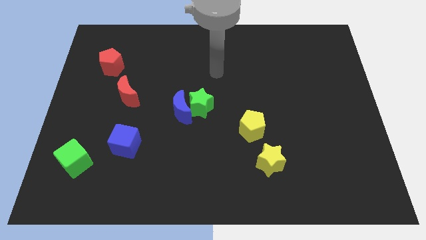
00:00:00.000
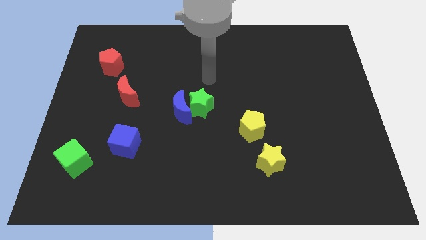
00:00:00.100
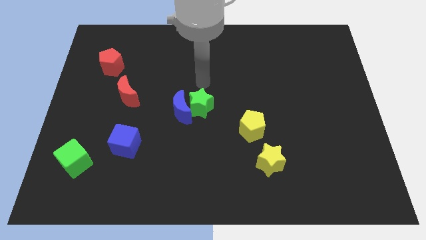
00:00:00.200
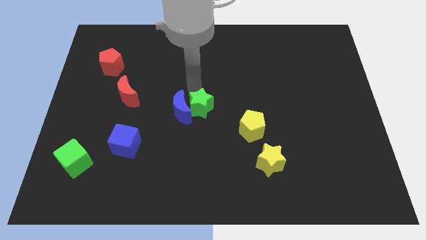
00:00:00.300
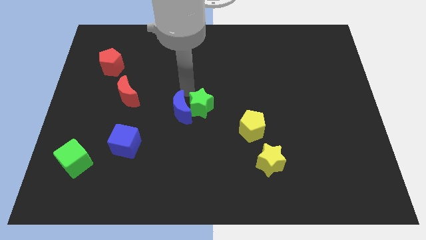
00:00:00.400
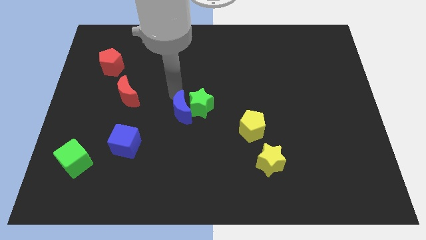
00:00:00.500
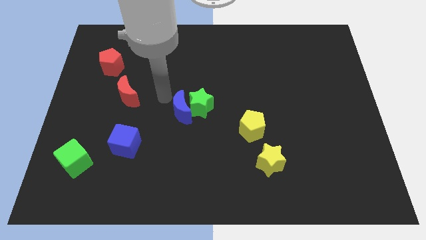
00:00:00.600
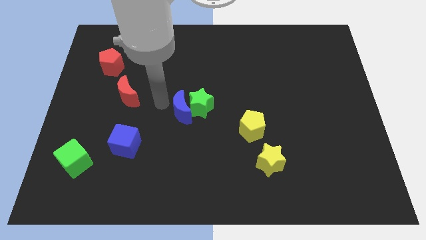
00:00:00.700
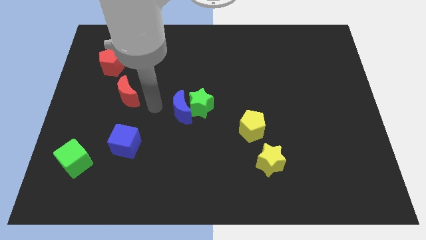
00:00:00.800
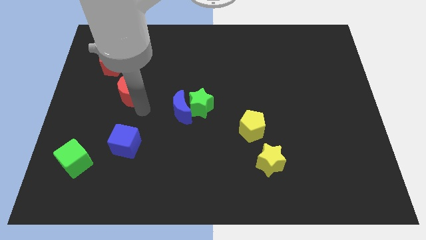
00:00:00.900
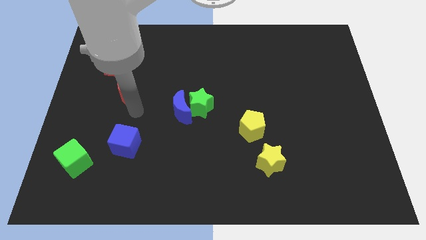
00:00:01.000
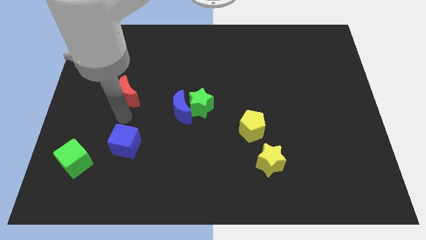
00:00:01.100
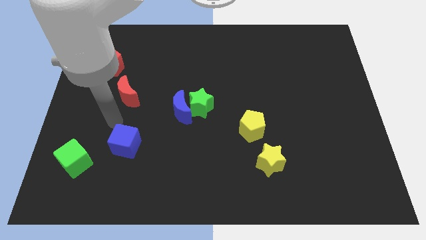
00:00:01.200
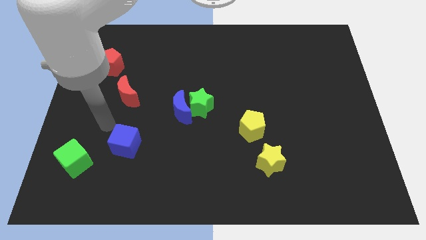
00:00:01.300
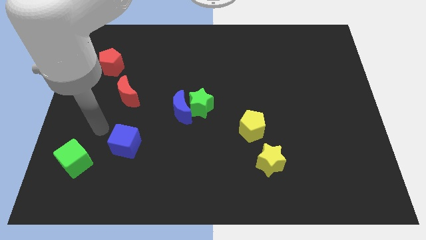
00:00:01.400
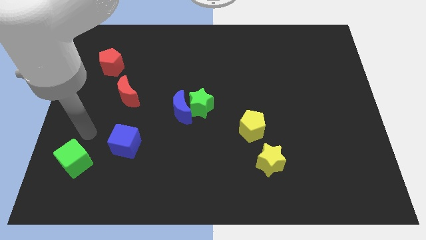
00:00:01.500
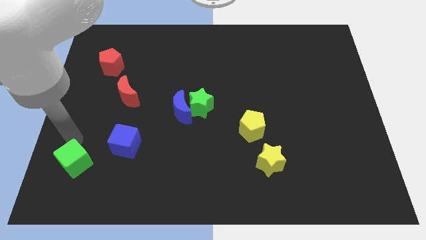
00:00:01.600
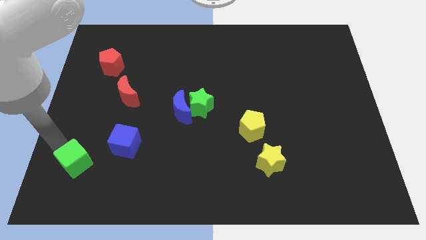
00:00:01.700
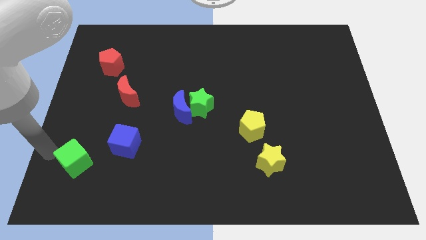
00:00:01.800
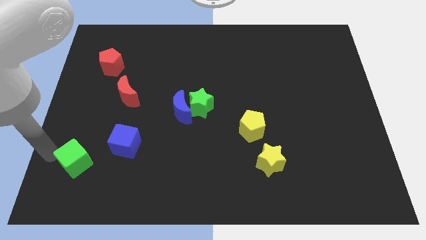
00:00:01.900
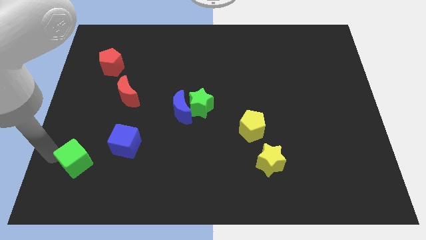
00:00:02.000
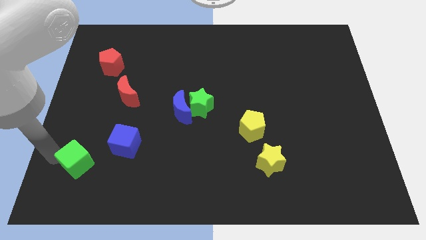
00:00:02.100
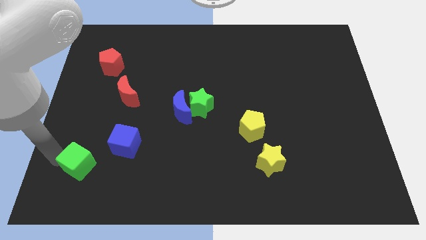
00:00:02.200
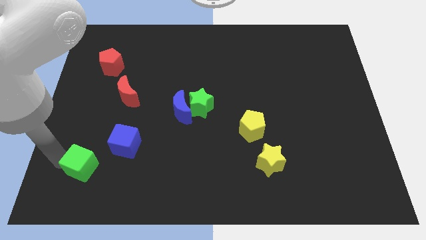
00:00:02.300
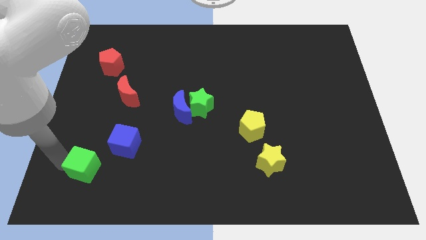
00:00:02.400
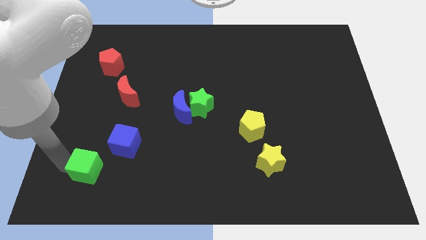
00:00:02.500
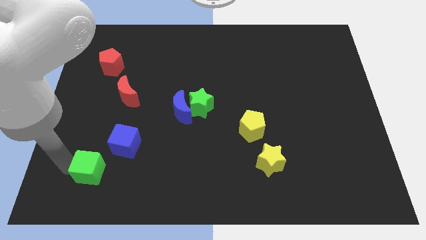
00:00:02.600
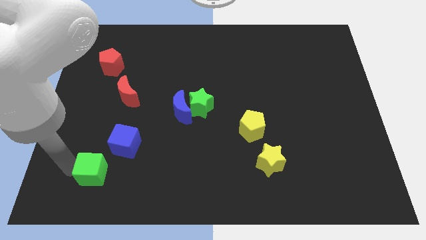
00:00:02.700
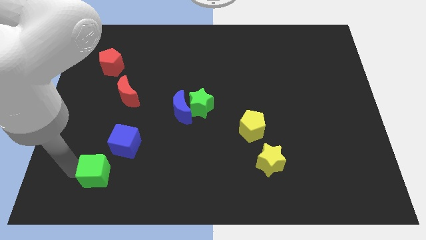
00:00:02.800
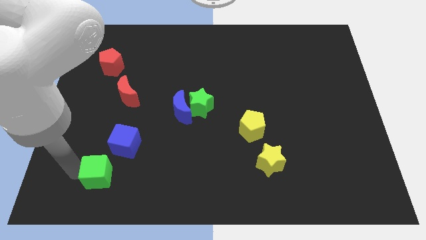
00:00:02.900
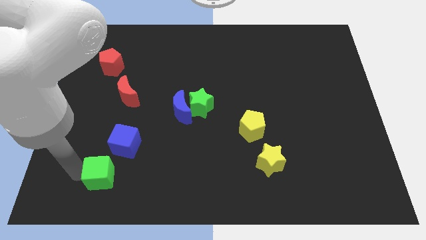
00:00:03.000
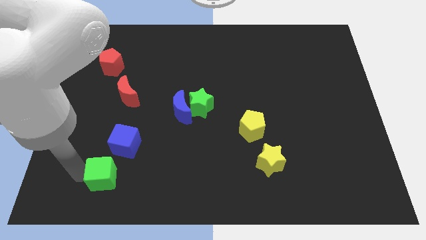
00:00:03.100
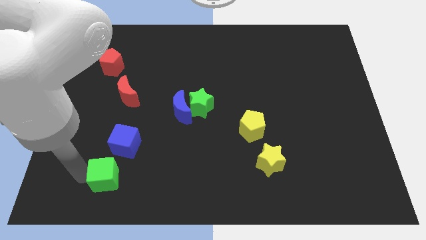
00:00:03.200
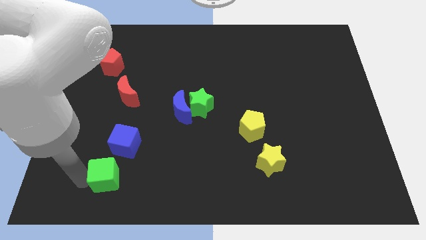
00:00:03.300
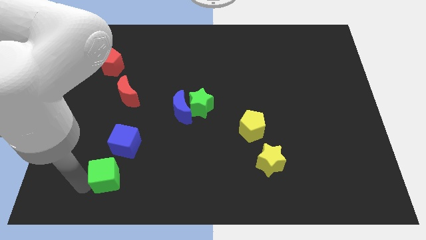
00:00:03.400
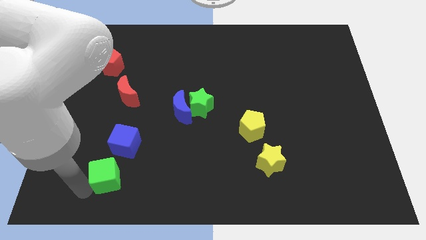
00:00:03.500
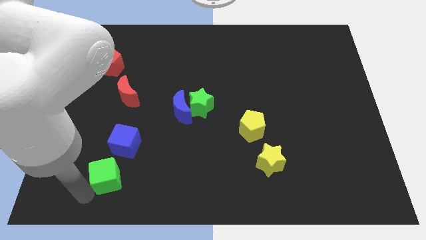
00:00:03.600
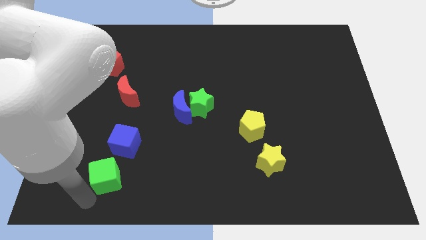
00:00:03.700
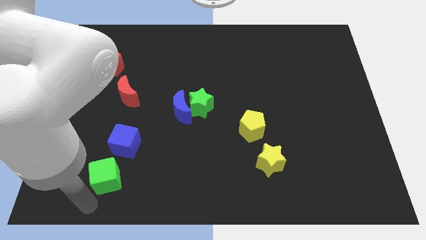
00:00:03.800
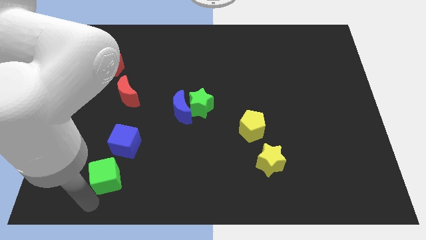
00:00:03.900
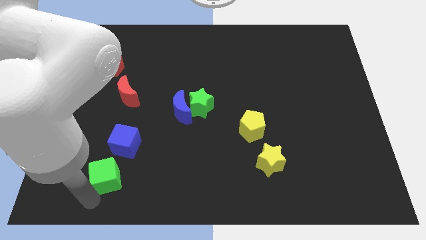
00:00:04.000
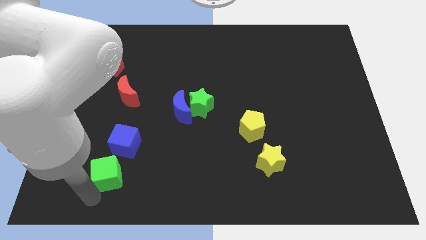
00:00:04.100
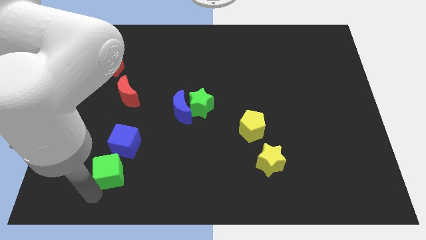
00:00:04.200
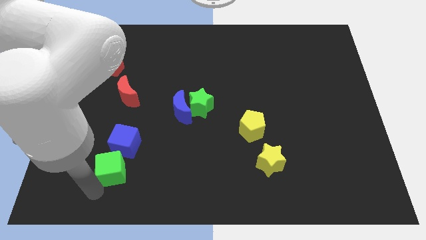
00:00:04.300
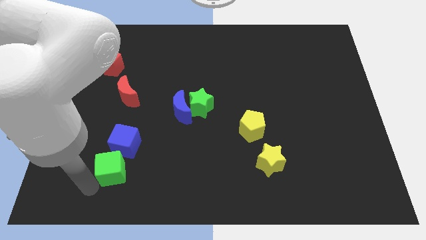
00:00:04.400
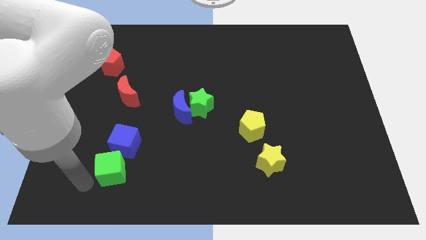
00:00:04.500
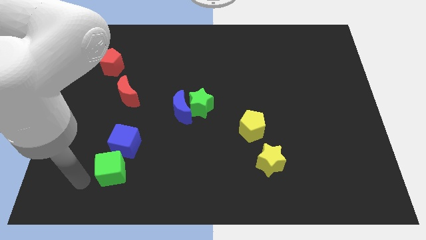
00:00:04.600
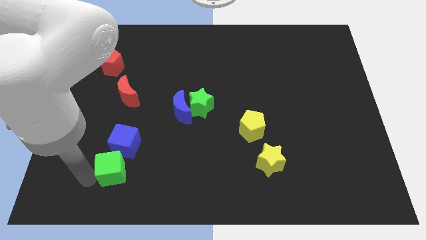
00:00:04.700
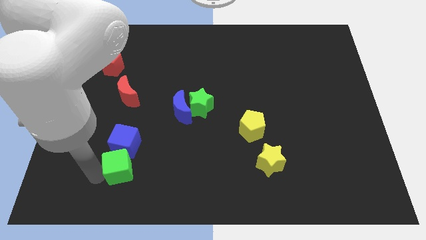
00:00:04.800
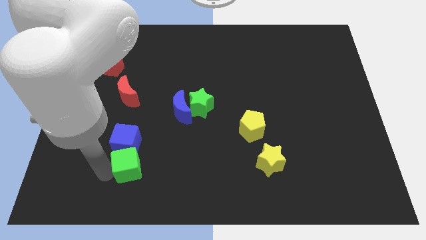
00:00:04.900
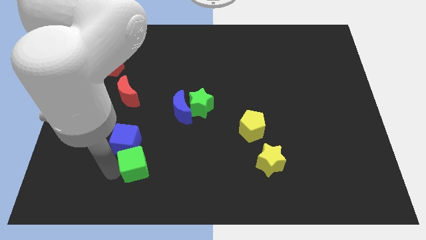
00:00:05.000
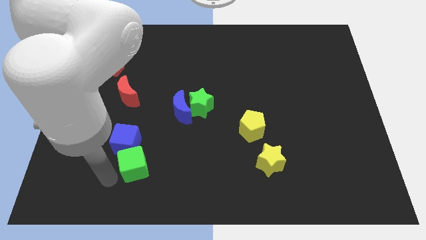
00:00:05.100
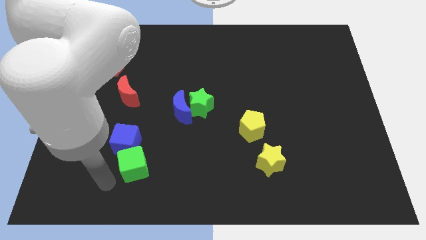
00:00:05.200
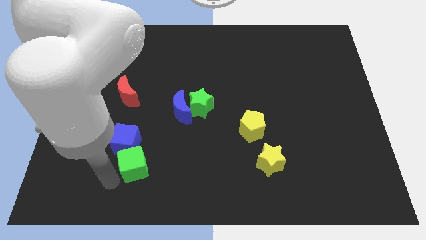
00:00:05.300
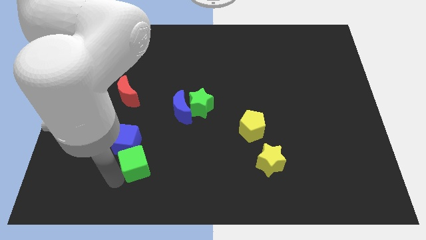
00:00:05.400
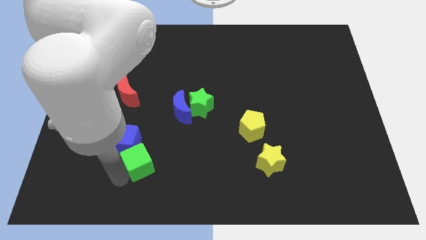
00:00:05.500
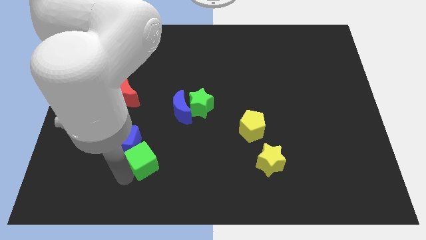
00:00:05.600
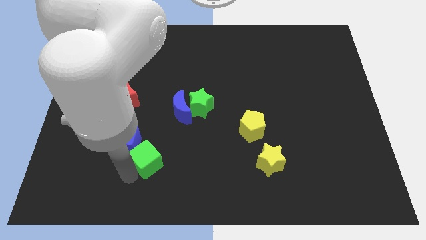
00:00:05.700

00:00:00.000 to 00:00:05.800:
move the green cube right of the blue cube

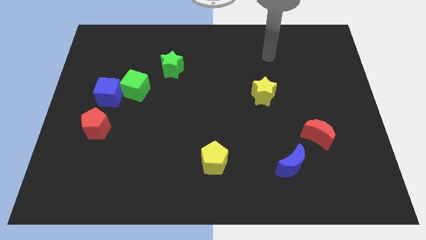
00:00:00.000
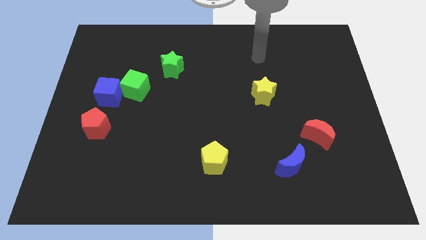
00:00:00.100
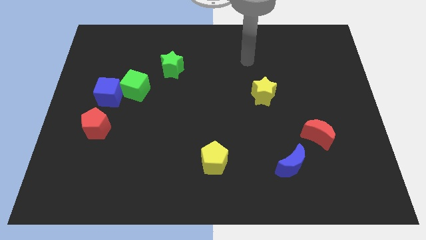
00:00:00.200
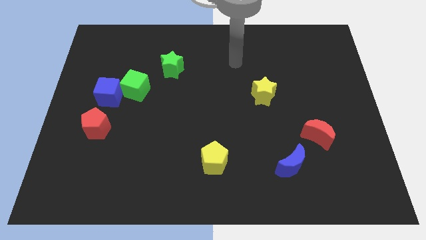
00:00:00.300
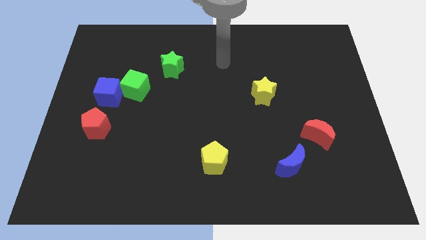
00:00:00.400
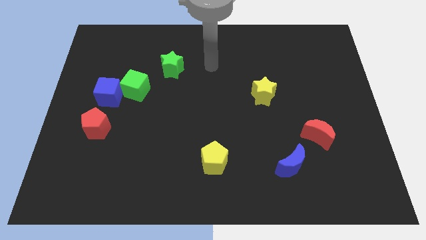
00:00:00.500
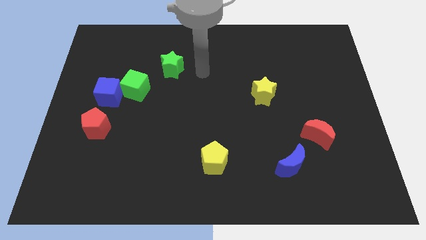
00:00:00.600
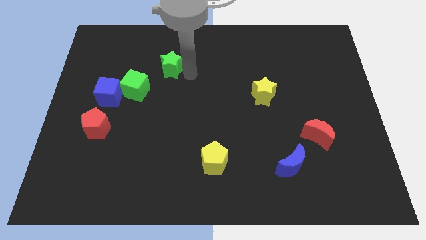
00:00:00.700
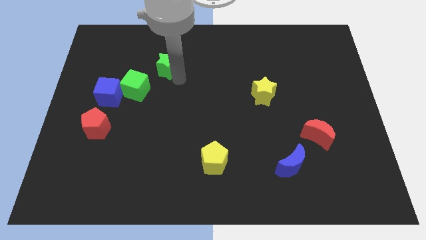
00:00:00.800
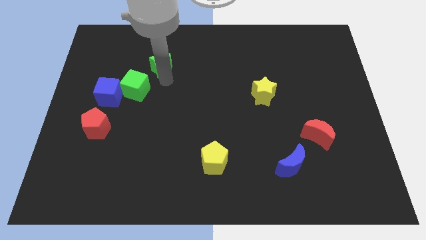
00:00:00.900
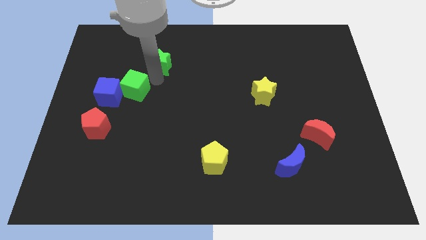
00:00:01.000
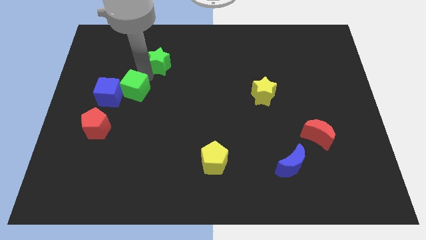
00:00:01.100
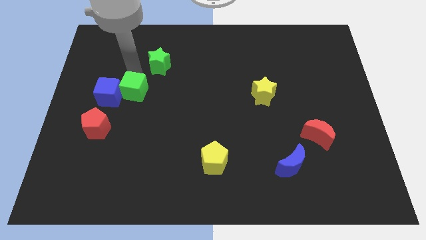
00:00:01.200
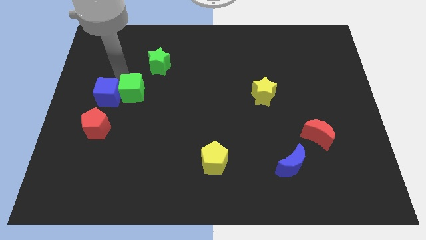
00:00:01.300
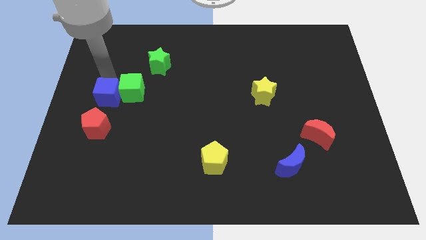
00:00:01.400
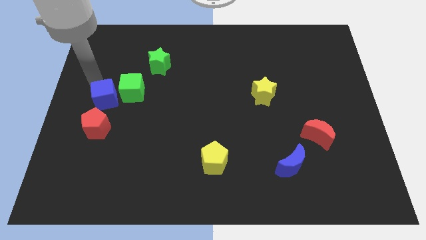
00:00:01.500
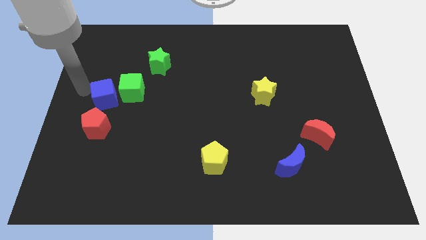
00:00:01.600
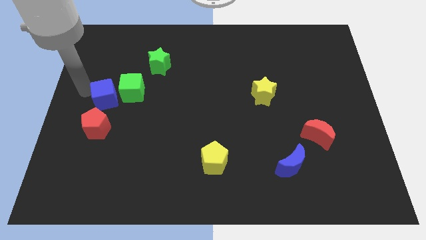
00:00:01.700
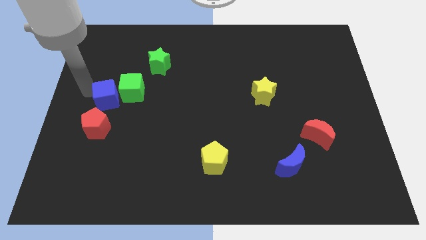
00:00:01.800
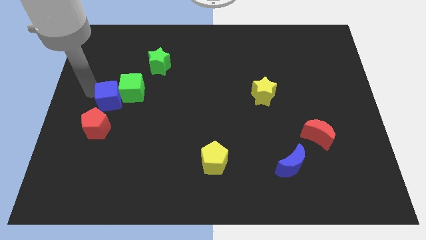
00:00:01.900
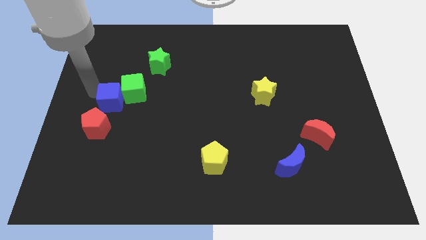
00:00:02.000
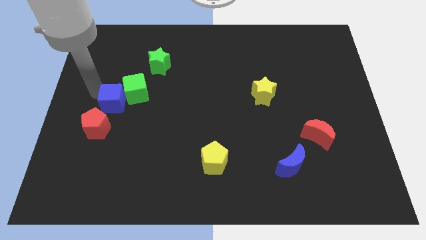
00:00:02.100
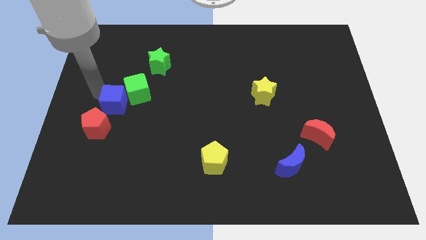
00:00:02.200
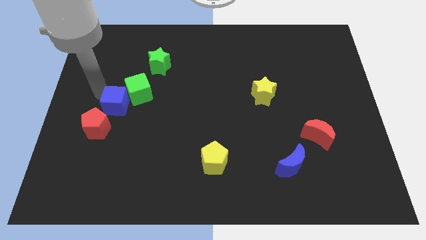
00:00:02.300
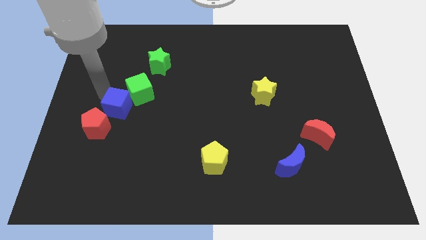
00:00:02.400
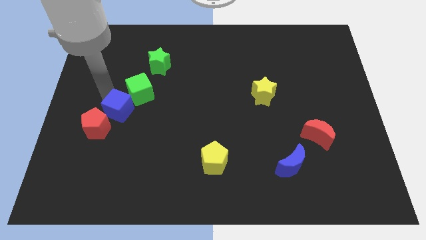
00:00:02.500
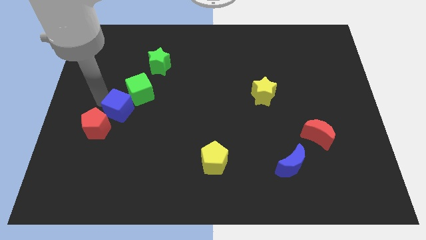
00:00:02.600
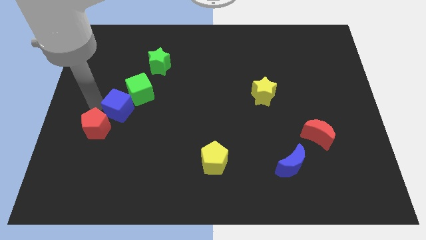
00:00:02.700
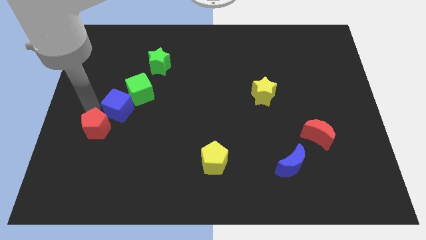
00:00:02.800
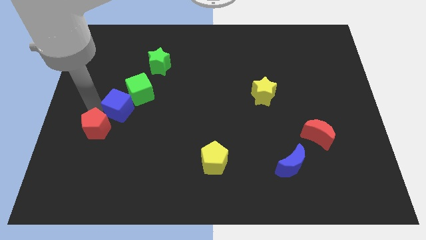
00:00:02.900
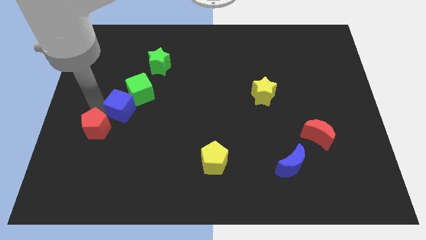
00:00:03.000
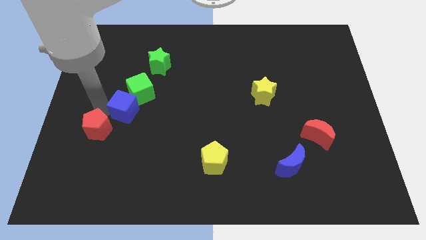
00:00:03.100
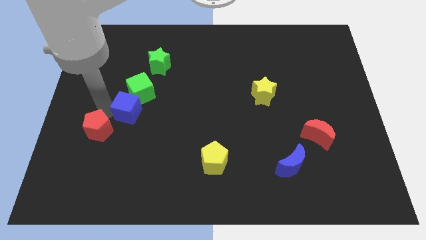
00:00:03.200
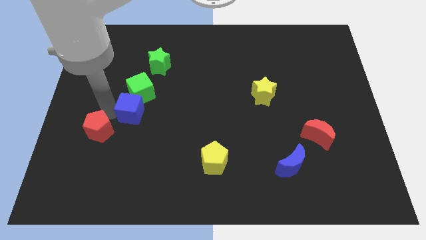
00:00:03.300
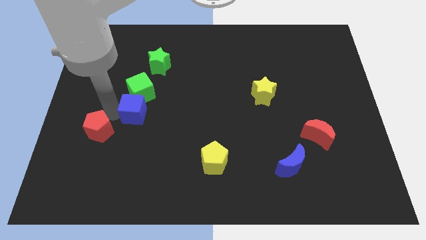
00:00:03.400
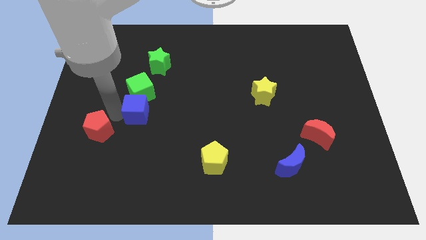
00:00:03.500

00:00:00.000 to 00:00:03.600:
slide the blue cube diagonally down and to the right of the green cube
